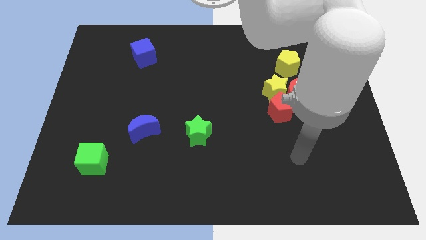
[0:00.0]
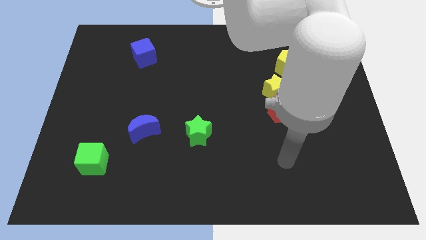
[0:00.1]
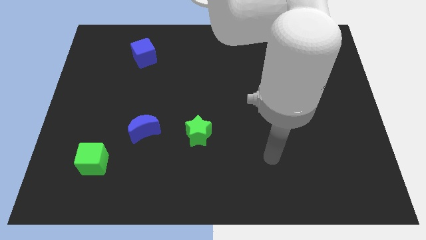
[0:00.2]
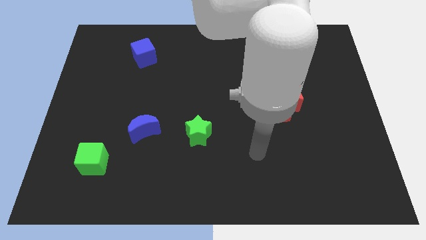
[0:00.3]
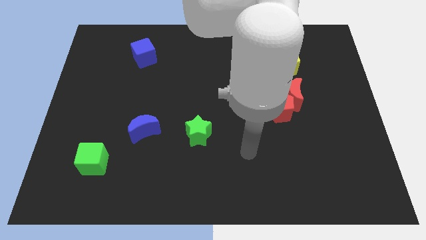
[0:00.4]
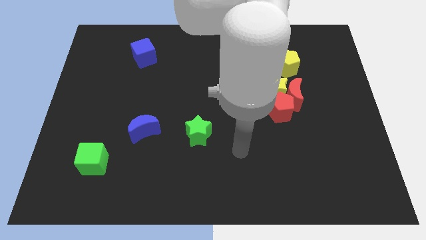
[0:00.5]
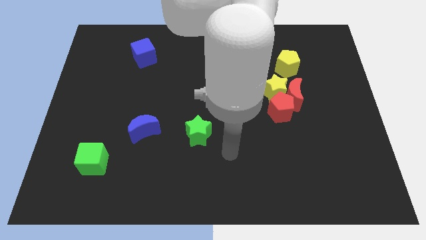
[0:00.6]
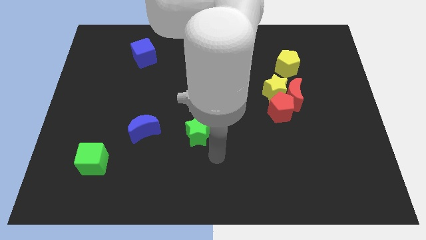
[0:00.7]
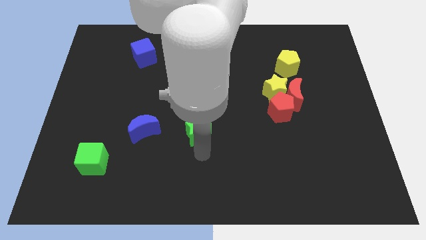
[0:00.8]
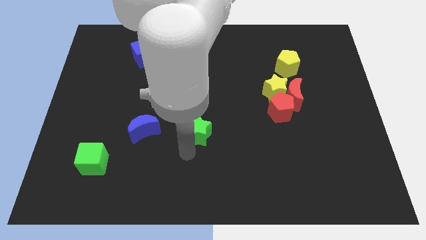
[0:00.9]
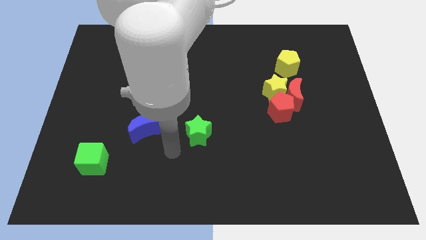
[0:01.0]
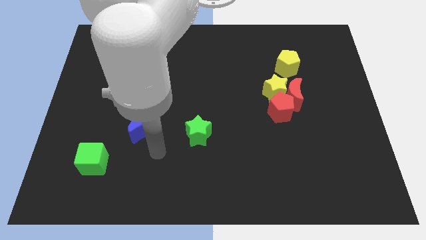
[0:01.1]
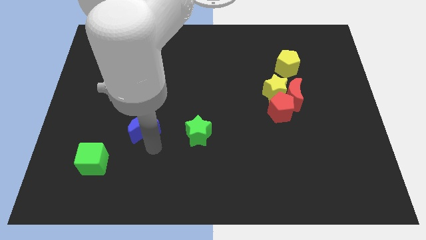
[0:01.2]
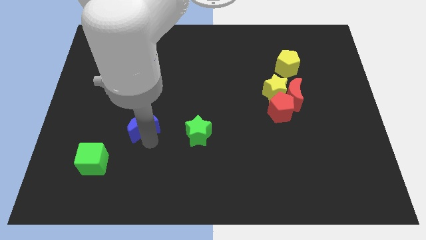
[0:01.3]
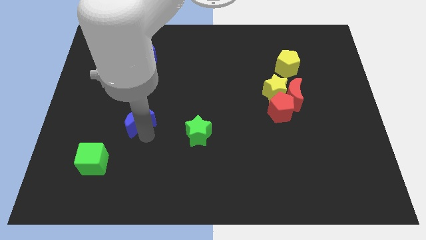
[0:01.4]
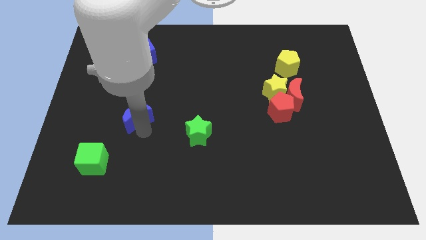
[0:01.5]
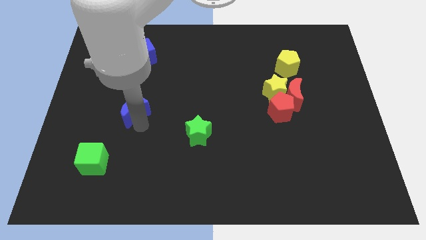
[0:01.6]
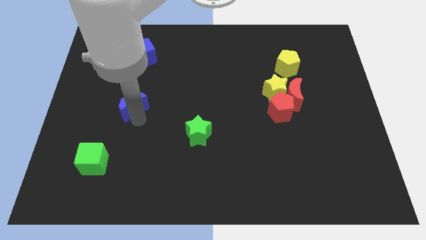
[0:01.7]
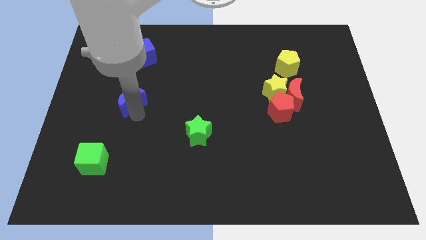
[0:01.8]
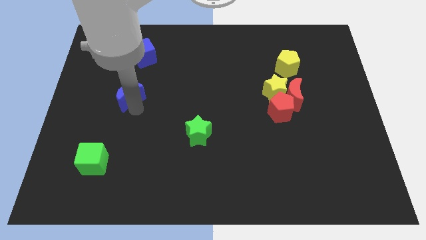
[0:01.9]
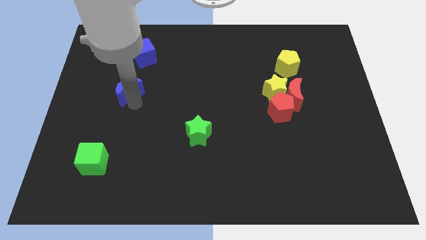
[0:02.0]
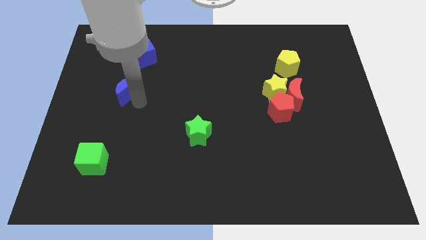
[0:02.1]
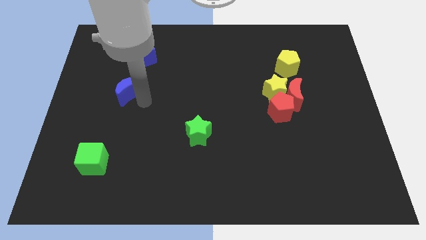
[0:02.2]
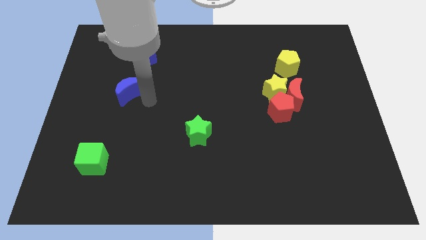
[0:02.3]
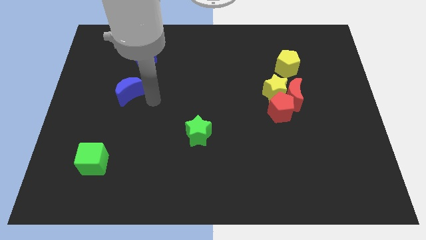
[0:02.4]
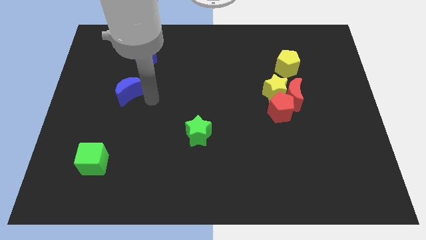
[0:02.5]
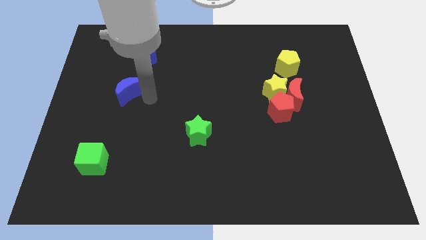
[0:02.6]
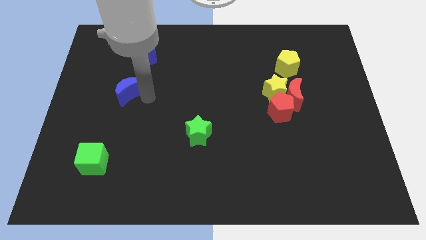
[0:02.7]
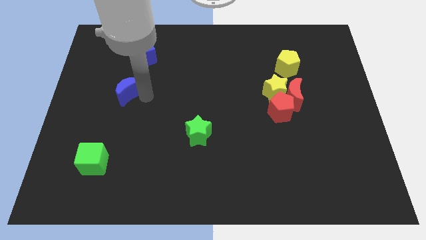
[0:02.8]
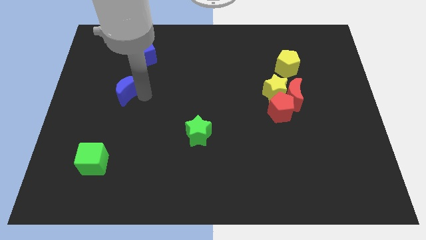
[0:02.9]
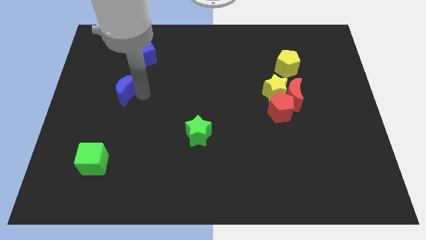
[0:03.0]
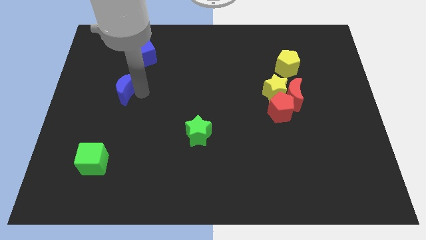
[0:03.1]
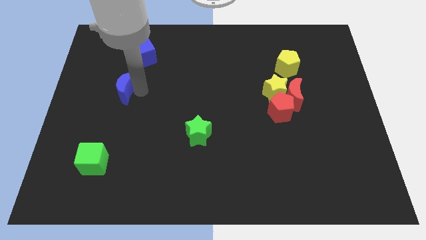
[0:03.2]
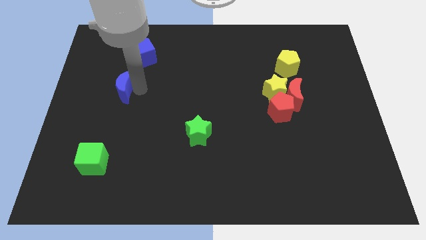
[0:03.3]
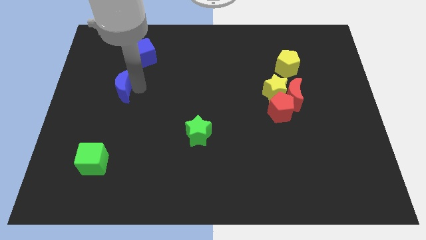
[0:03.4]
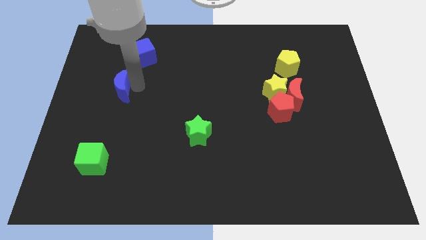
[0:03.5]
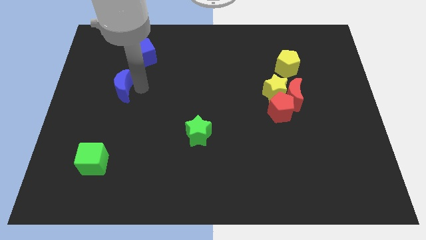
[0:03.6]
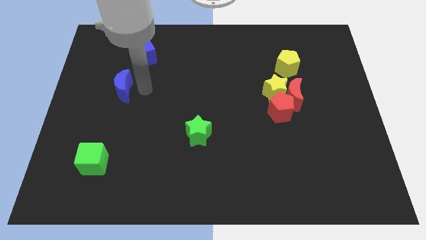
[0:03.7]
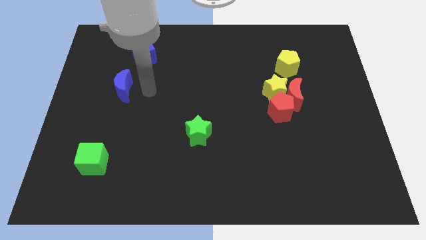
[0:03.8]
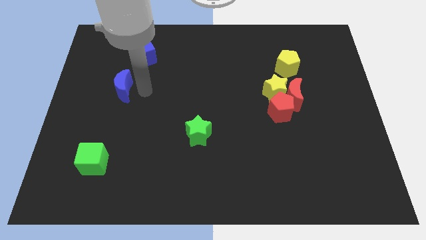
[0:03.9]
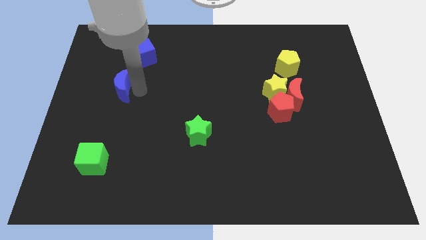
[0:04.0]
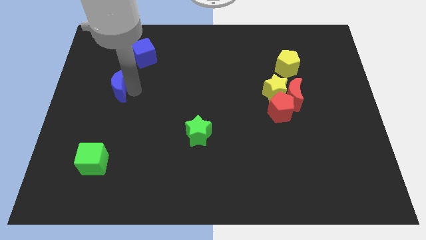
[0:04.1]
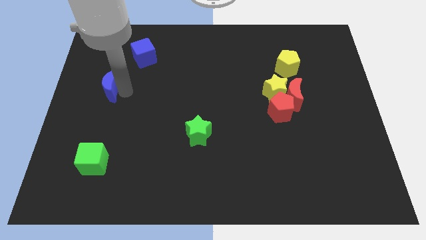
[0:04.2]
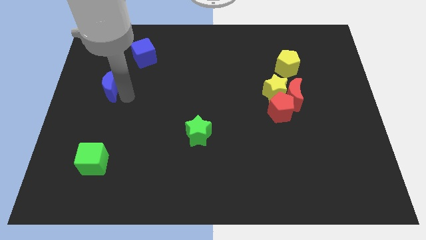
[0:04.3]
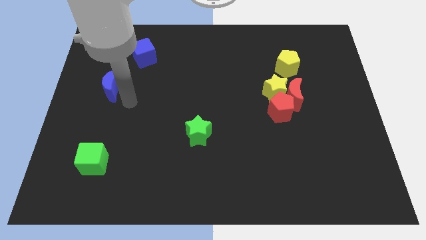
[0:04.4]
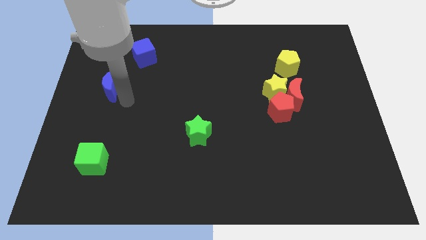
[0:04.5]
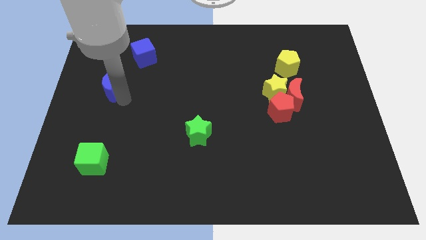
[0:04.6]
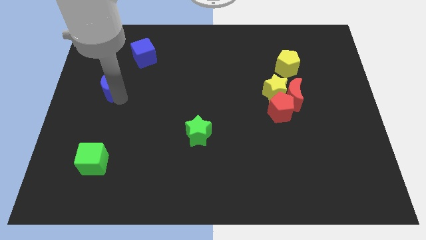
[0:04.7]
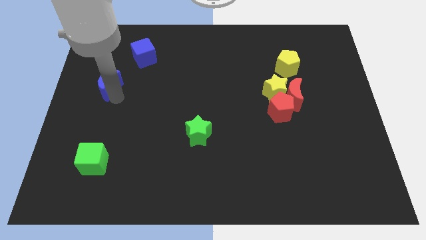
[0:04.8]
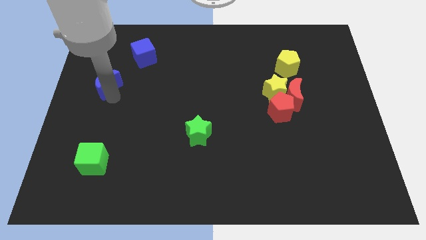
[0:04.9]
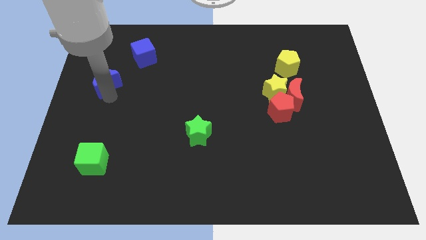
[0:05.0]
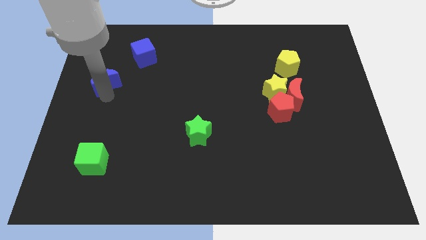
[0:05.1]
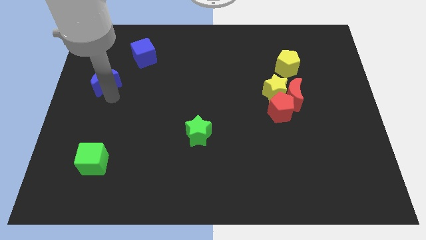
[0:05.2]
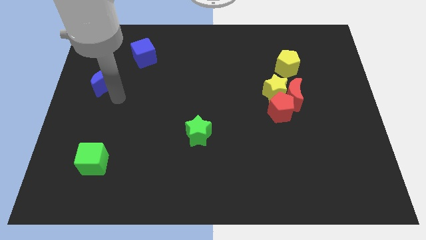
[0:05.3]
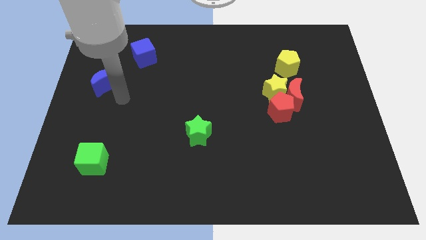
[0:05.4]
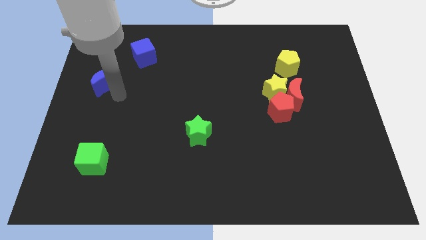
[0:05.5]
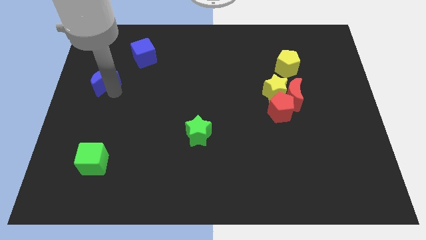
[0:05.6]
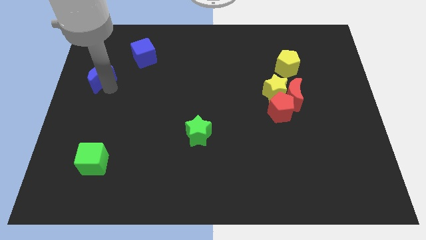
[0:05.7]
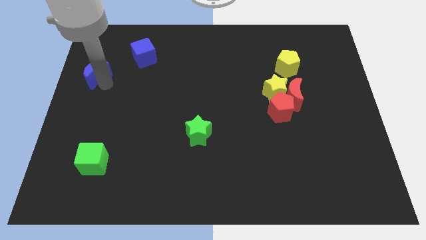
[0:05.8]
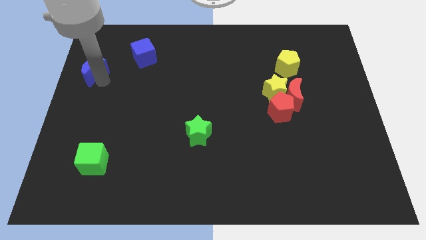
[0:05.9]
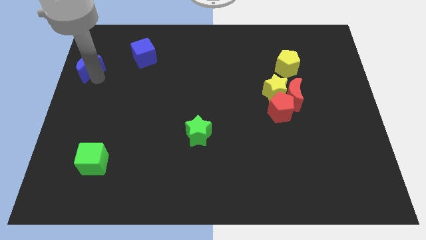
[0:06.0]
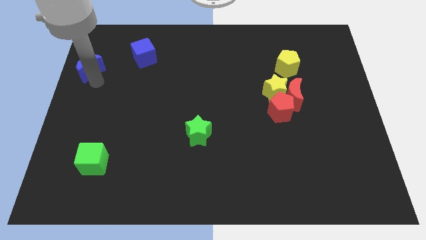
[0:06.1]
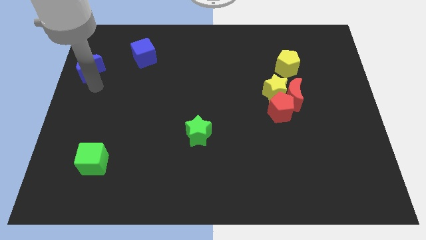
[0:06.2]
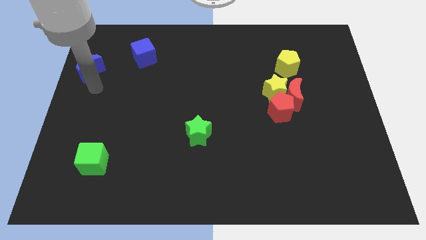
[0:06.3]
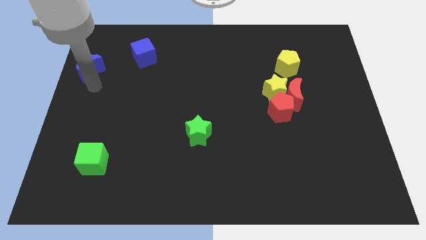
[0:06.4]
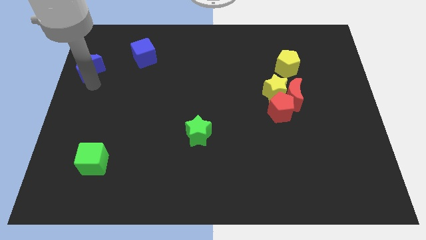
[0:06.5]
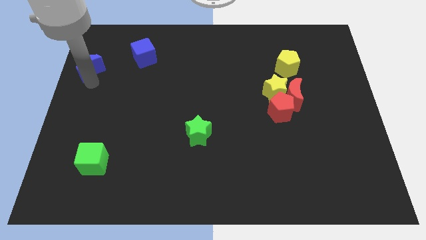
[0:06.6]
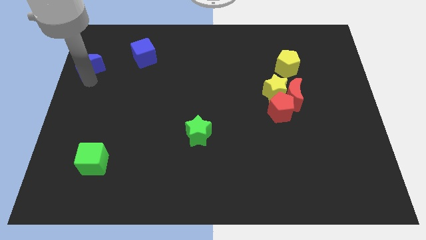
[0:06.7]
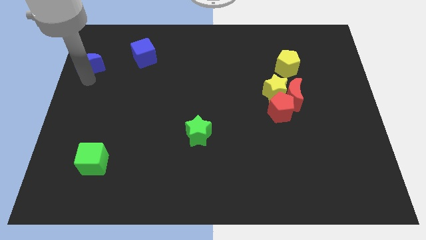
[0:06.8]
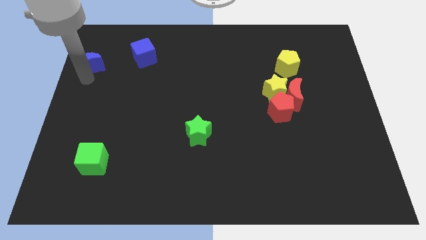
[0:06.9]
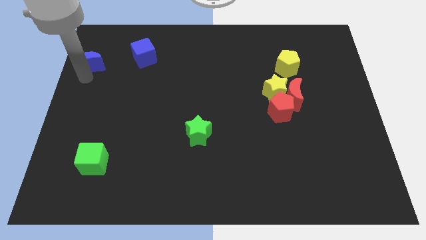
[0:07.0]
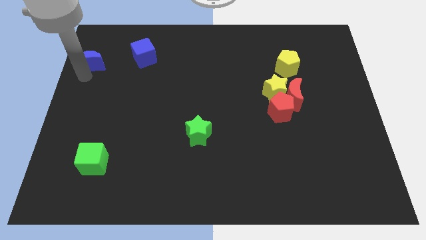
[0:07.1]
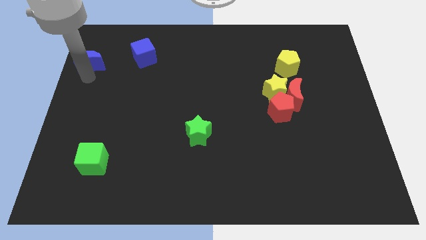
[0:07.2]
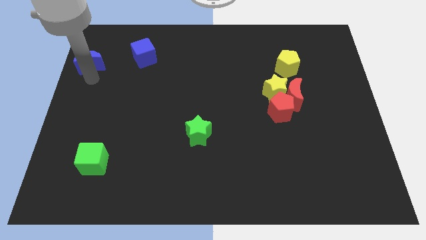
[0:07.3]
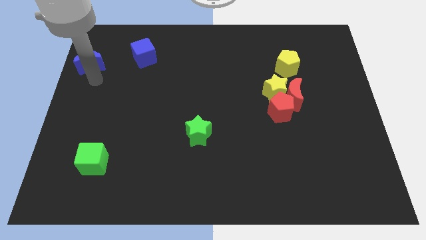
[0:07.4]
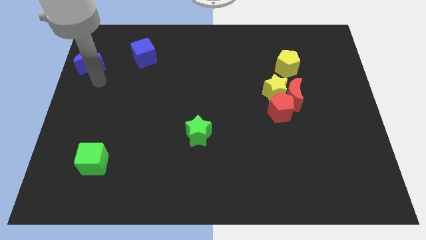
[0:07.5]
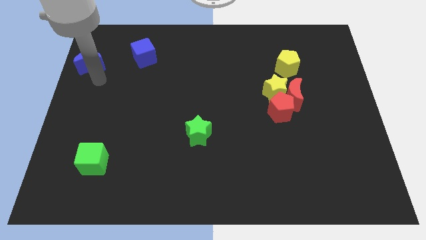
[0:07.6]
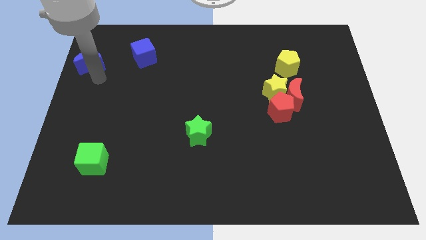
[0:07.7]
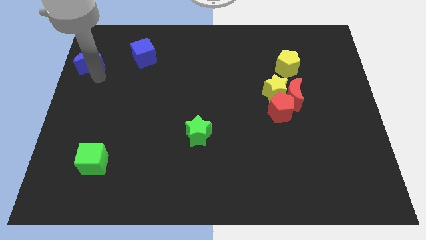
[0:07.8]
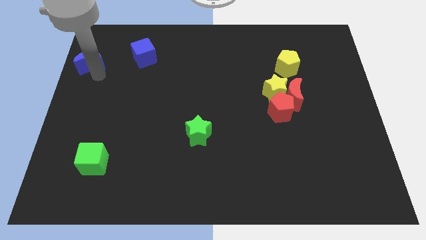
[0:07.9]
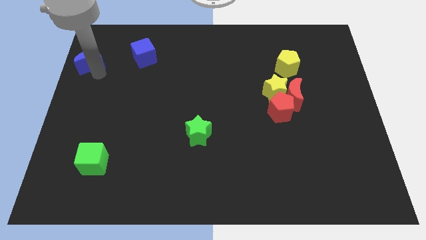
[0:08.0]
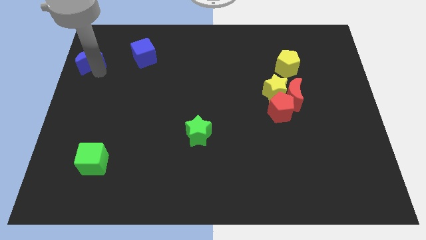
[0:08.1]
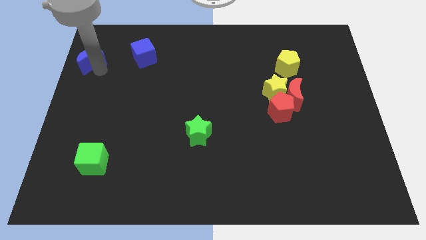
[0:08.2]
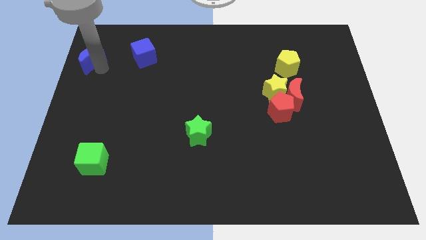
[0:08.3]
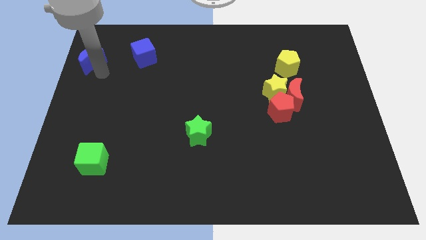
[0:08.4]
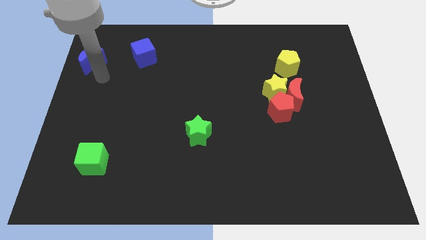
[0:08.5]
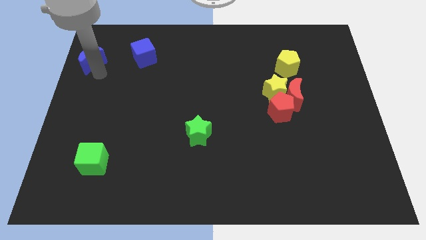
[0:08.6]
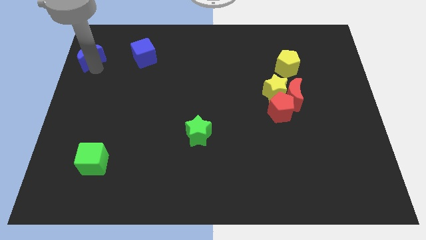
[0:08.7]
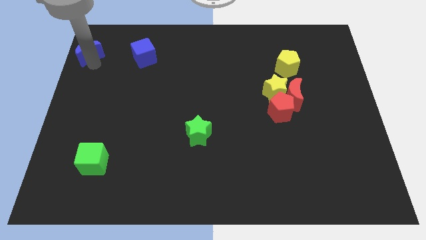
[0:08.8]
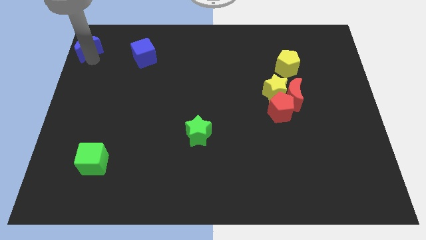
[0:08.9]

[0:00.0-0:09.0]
move the blue moon to the top left corner
